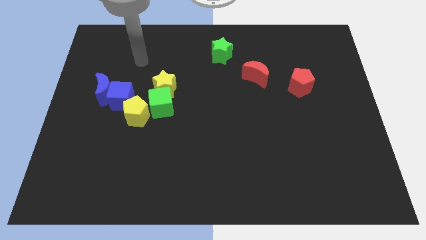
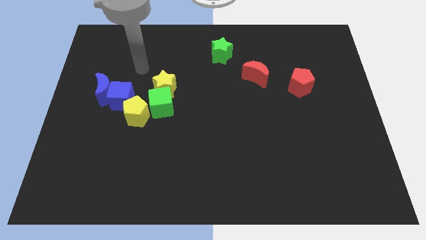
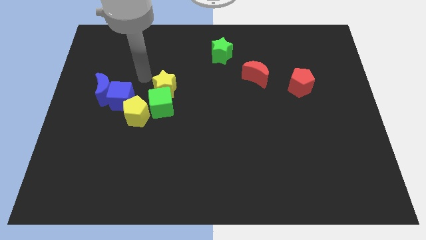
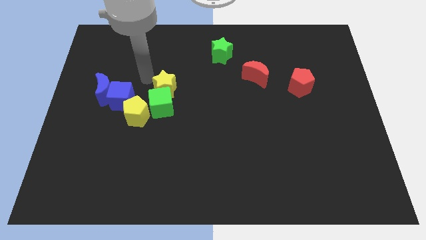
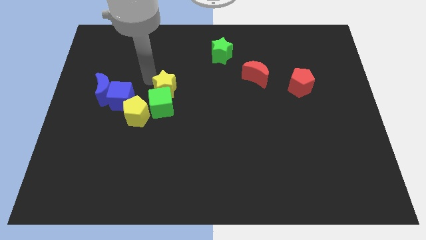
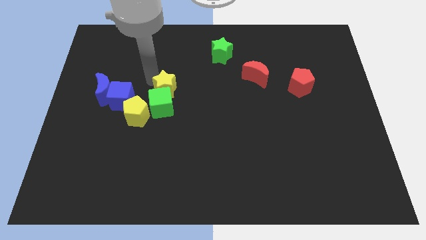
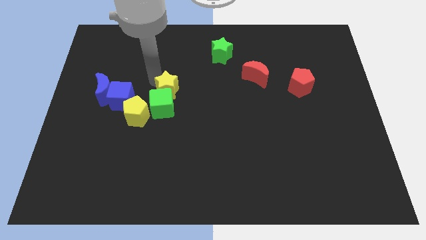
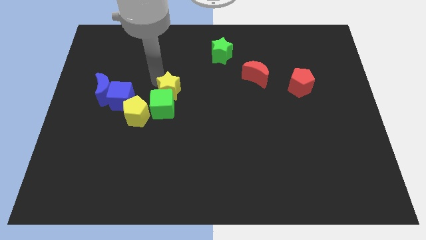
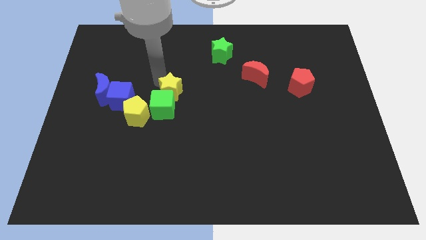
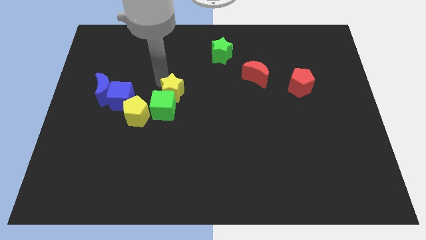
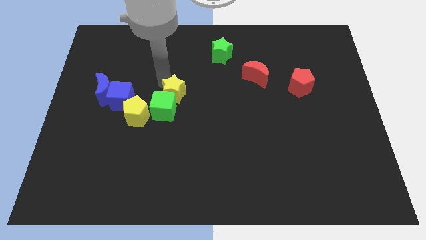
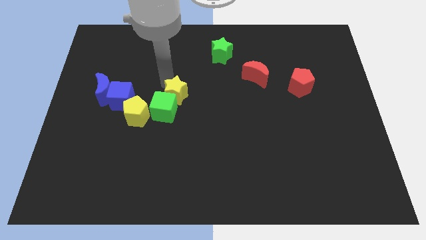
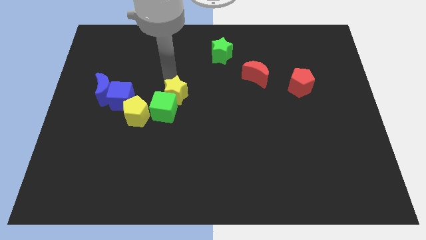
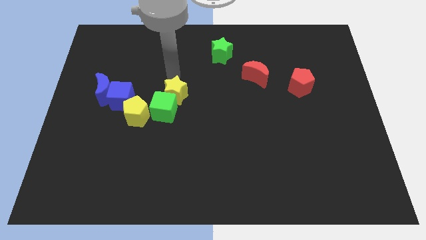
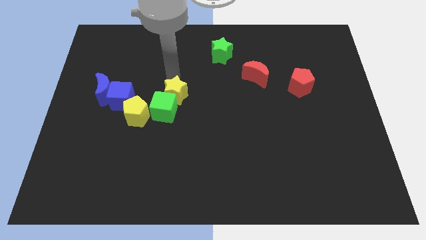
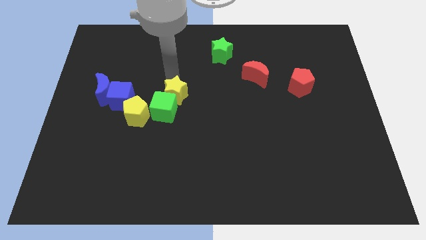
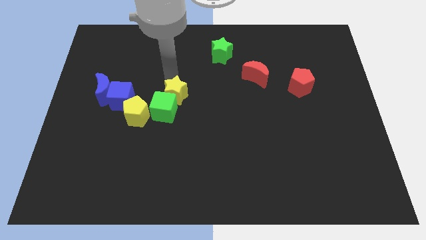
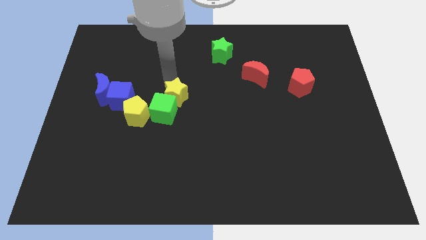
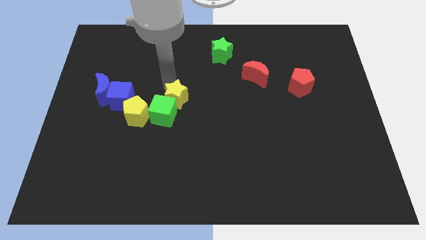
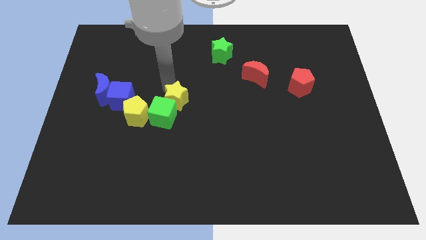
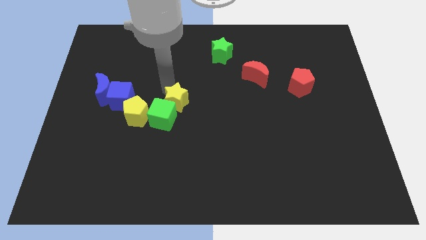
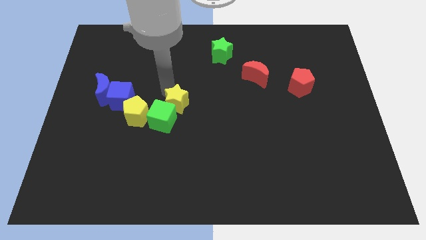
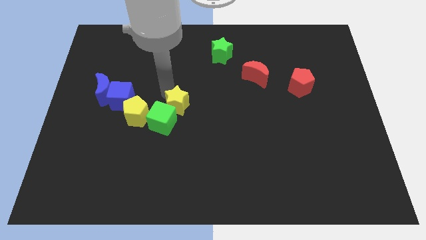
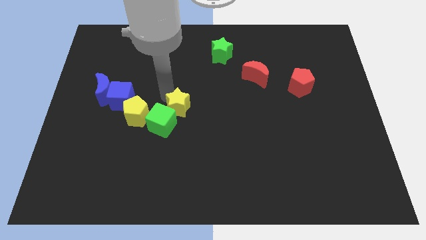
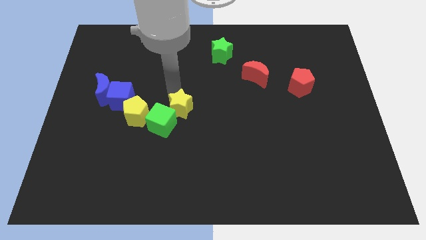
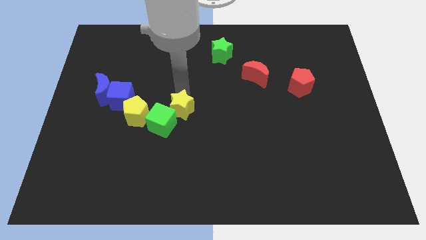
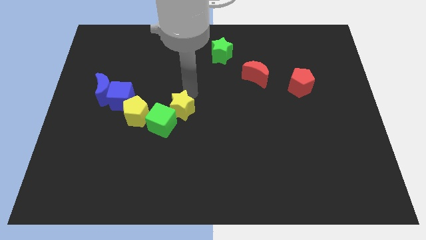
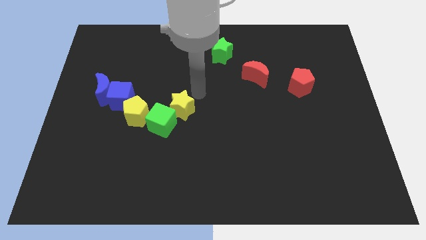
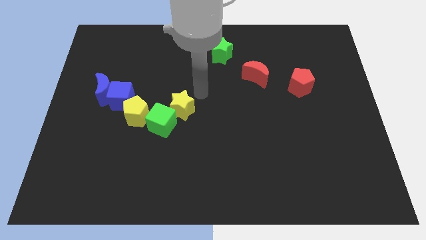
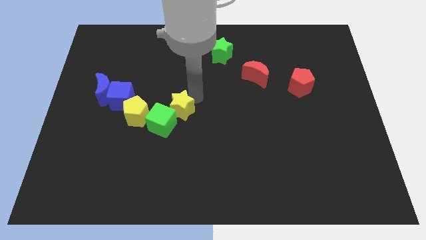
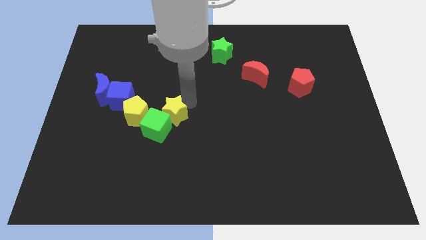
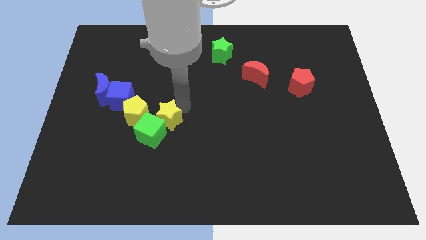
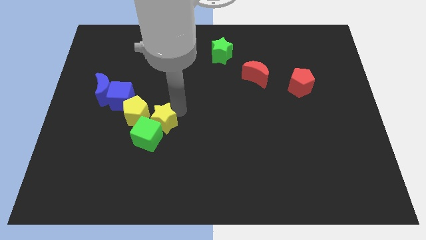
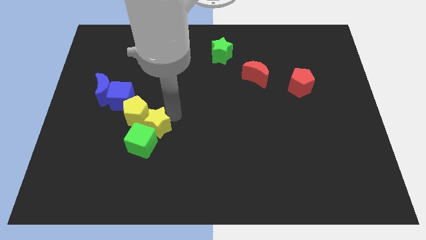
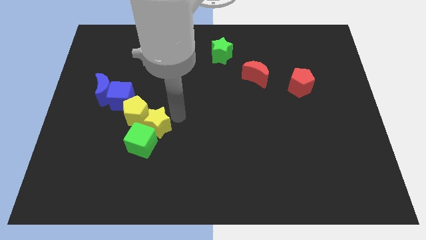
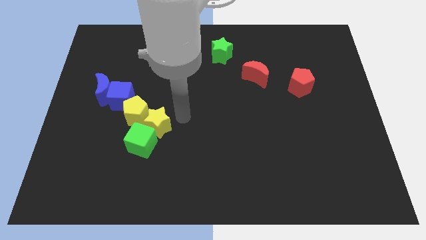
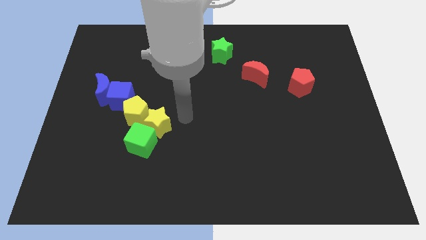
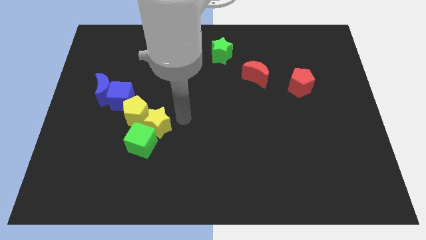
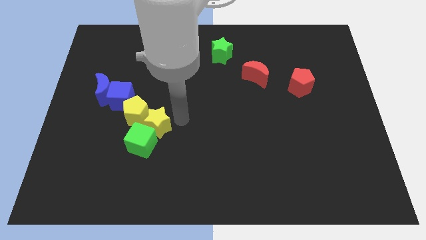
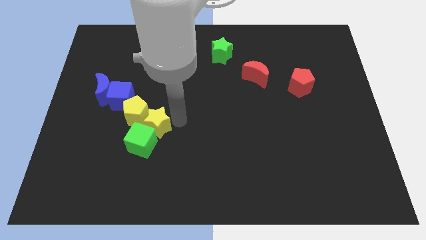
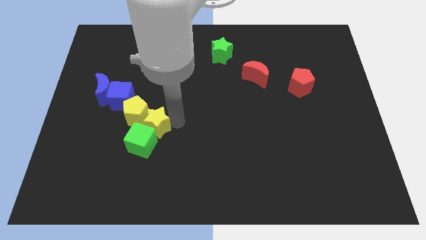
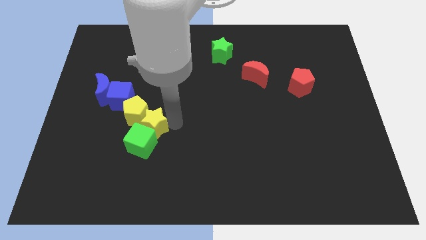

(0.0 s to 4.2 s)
slightly slide the yellow star diagonally down and left

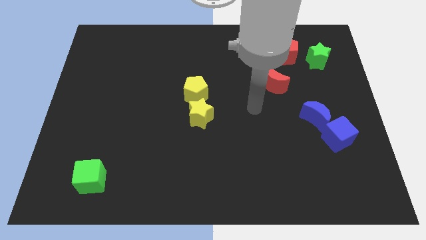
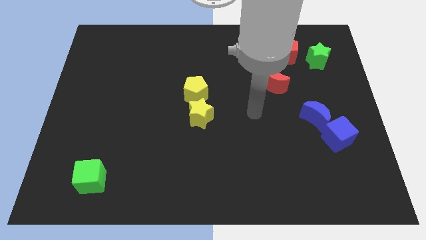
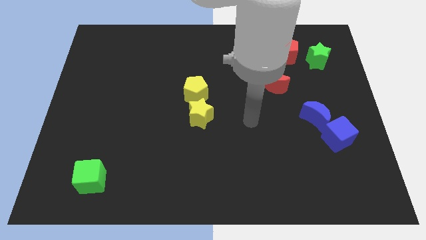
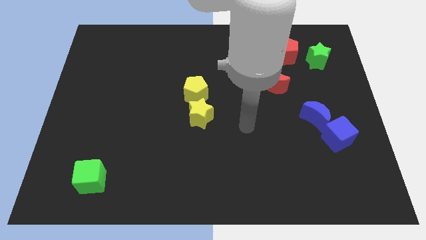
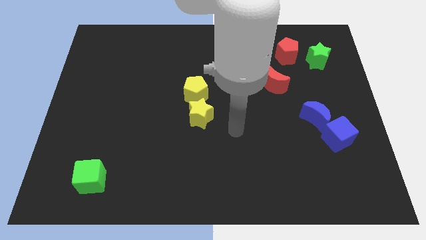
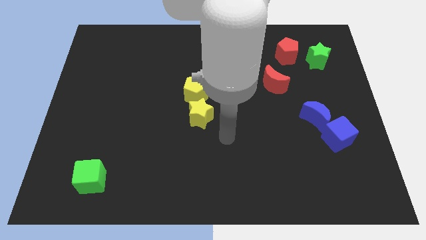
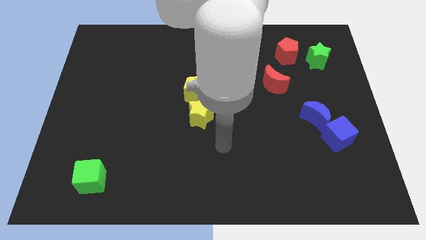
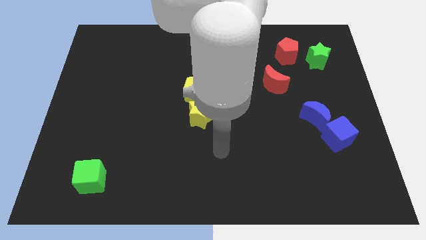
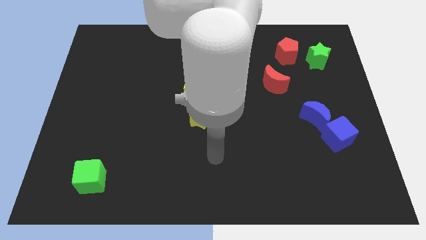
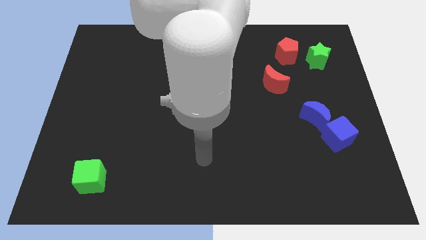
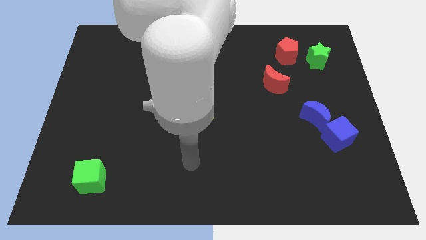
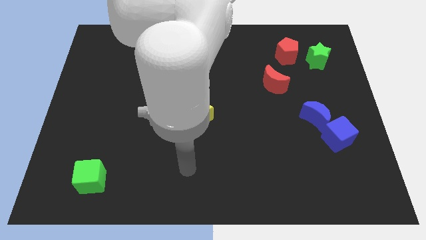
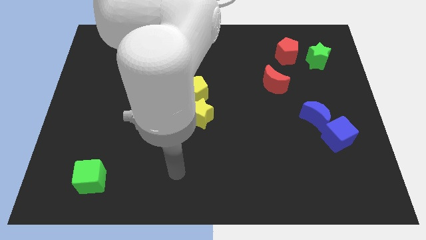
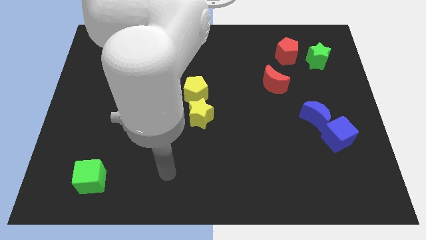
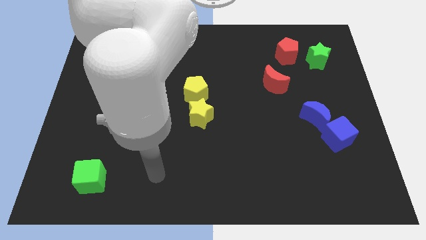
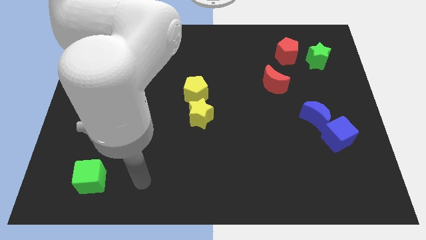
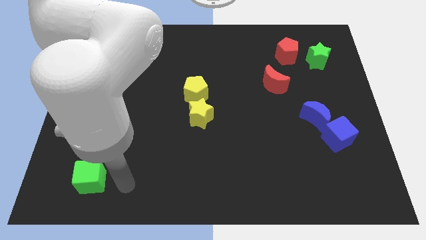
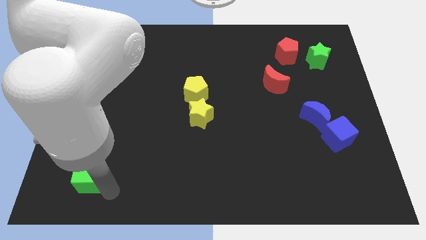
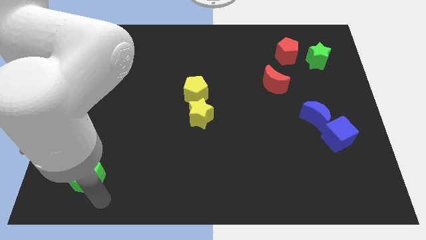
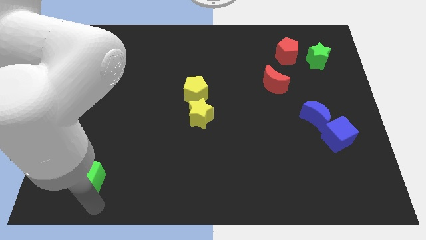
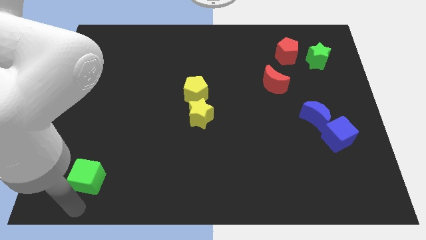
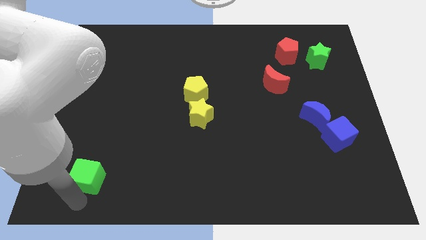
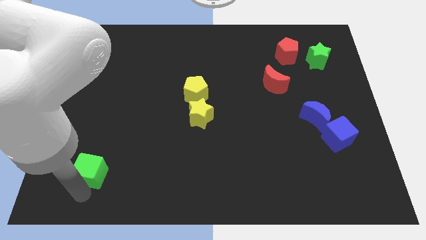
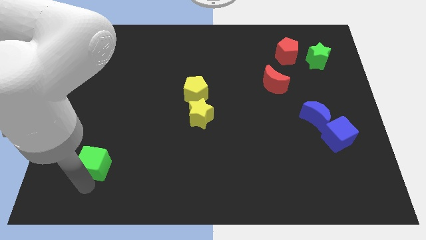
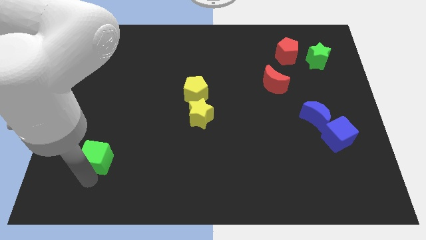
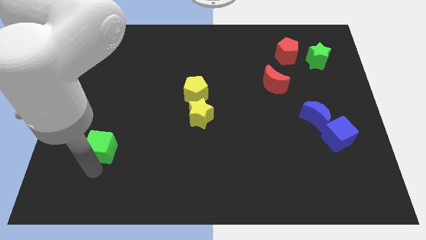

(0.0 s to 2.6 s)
push the green cube upwards slightly

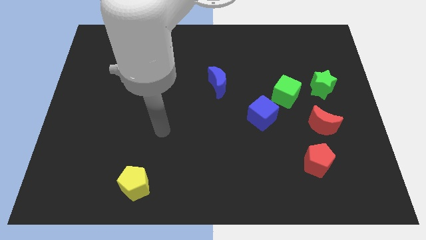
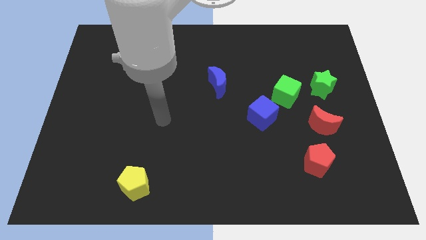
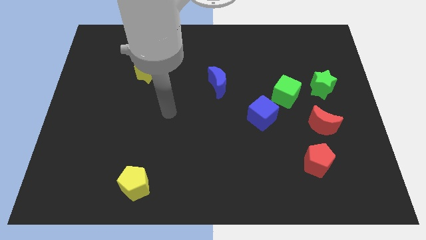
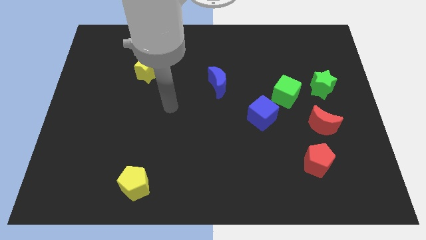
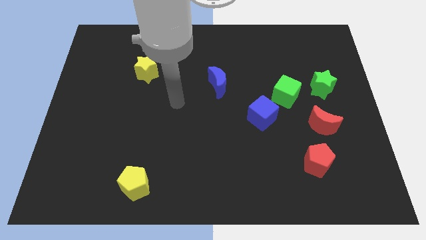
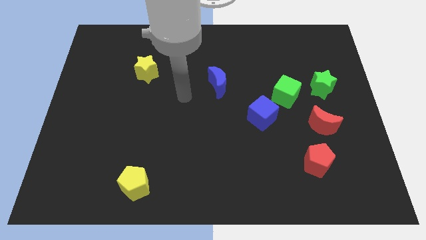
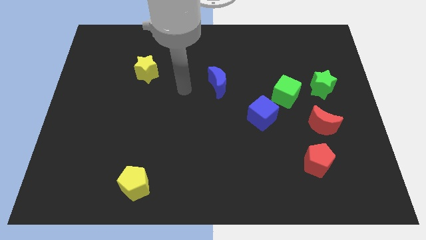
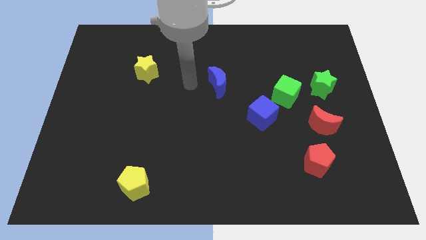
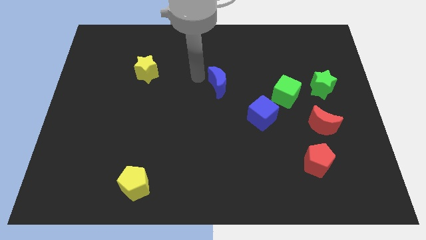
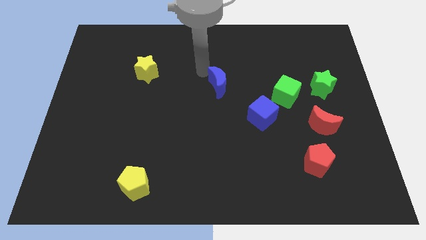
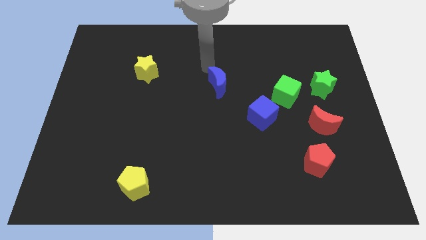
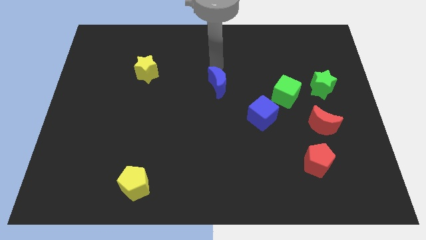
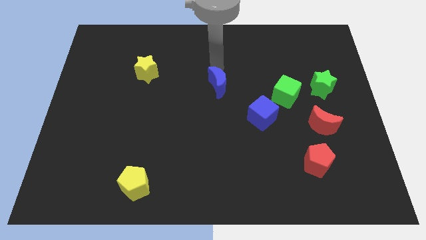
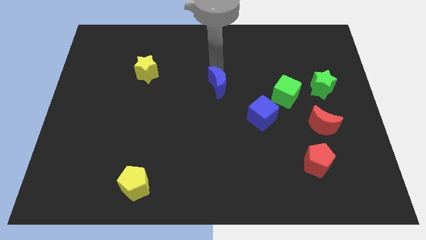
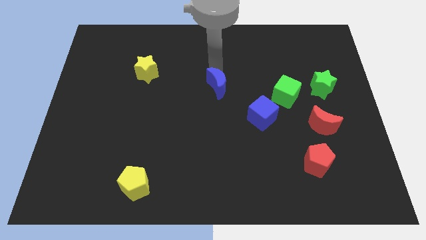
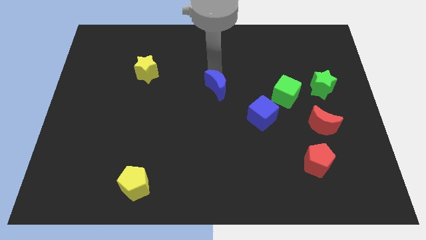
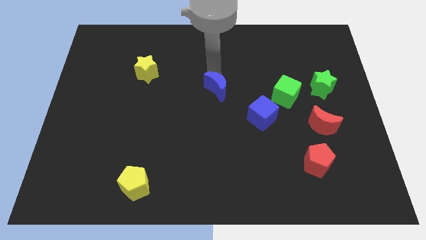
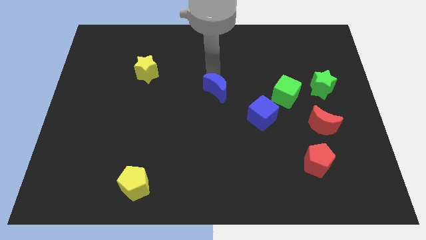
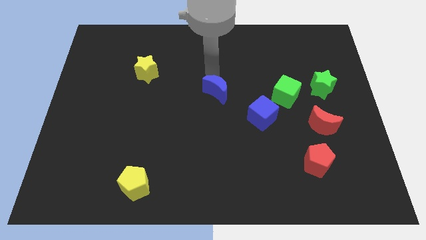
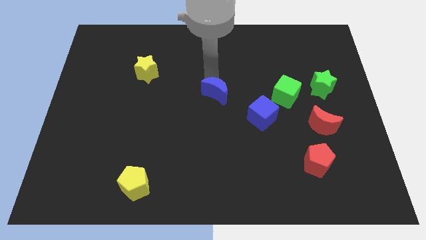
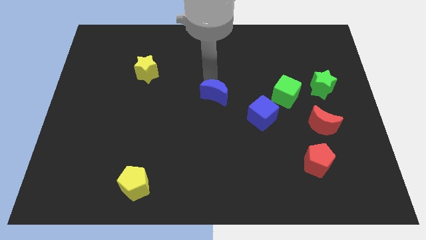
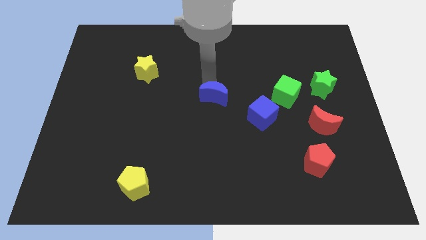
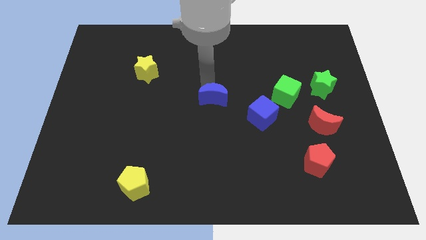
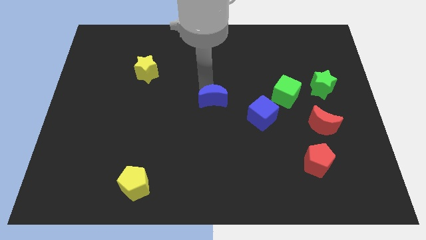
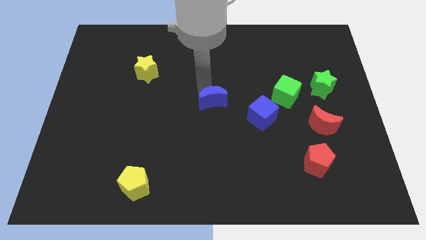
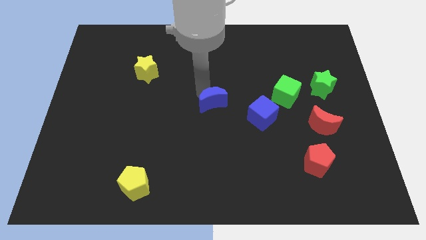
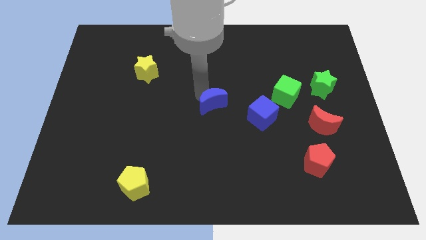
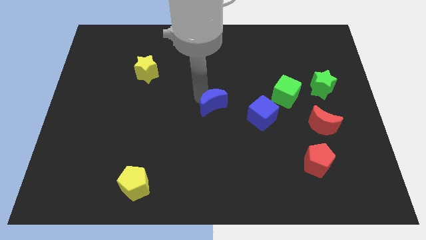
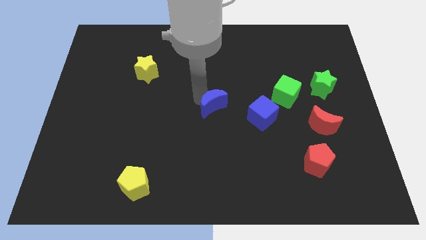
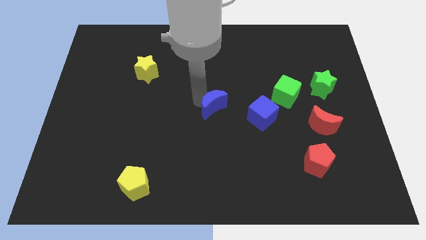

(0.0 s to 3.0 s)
move the blue moon slightly down
